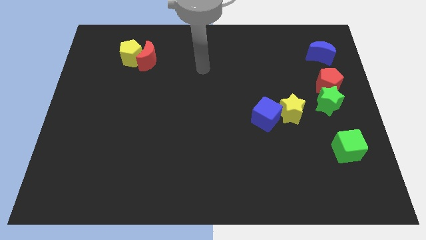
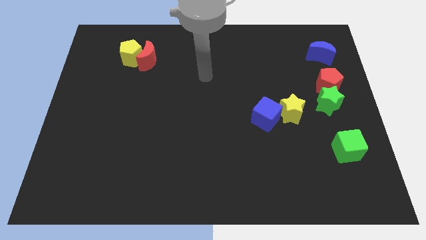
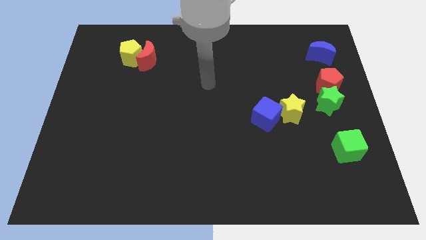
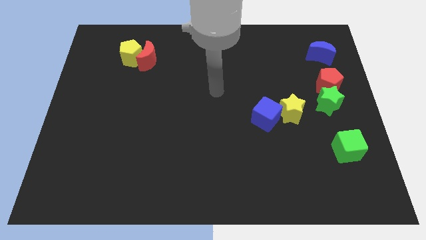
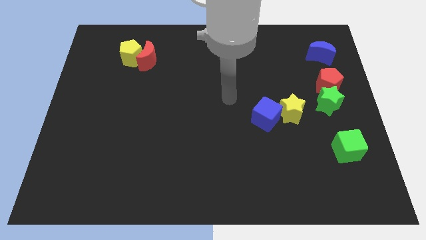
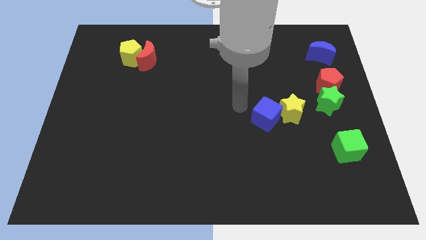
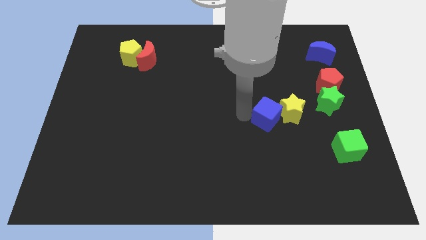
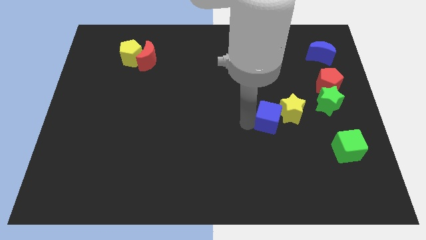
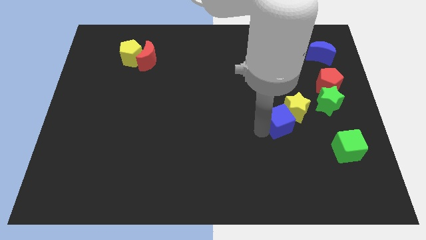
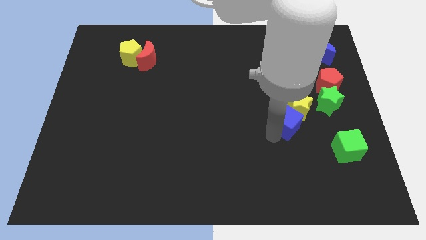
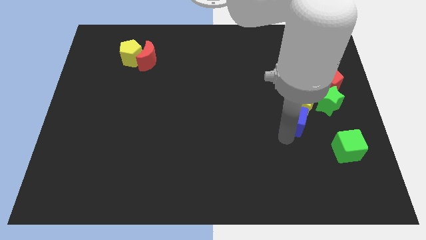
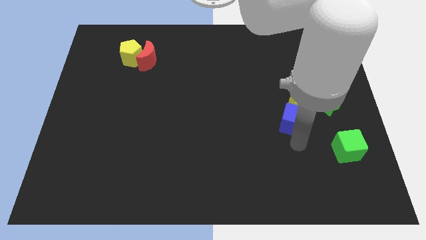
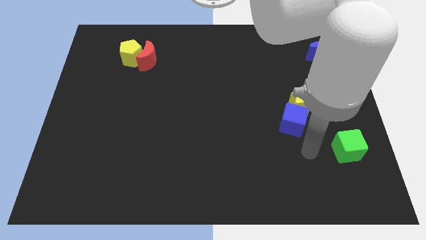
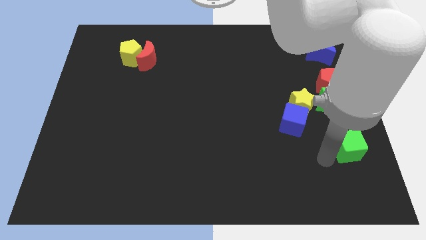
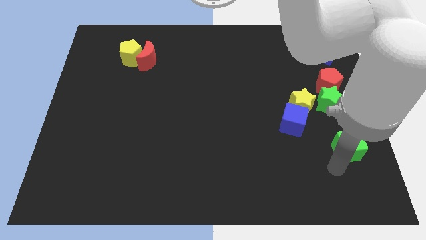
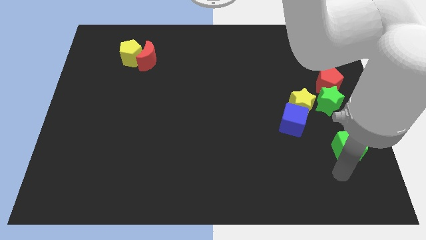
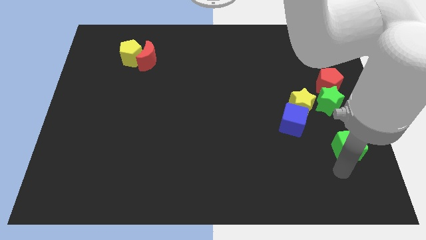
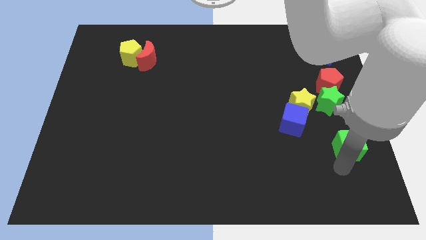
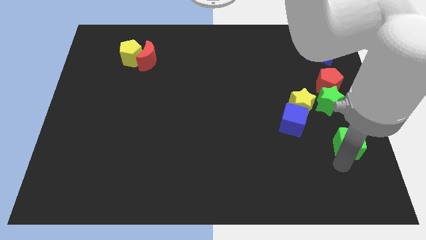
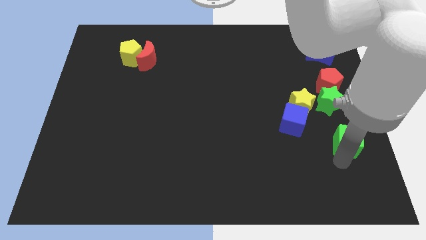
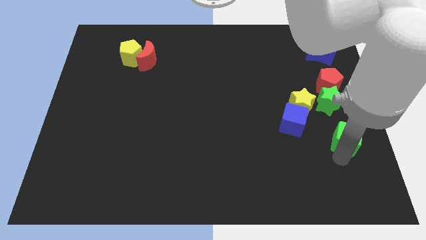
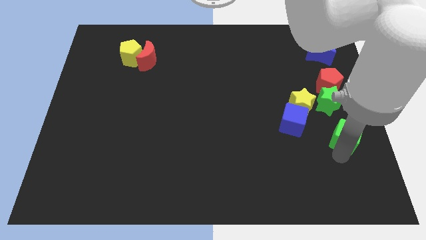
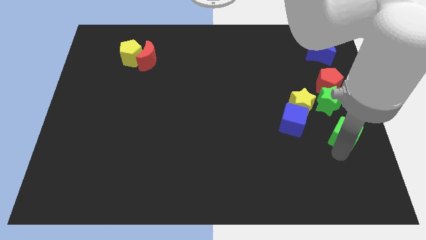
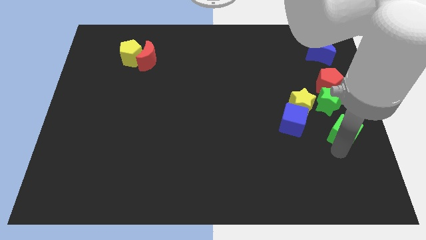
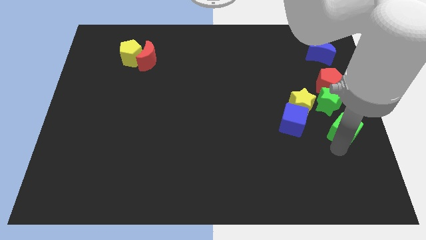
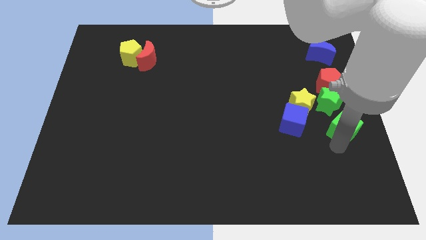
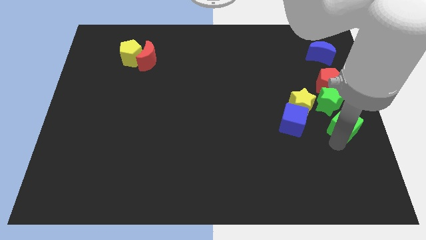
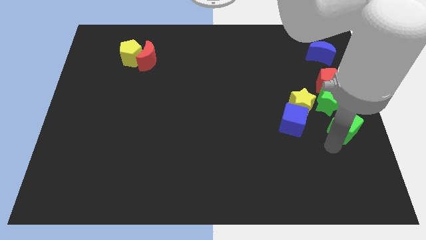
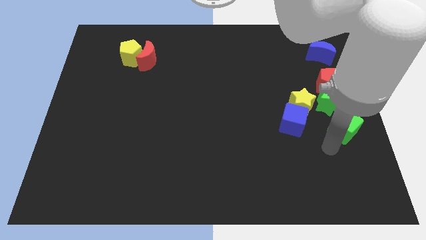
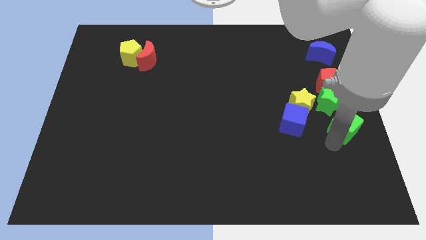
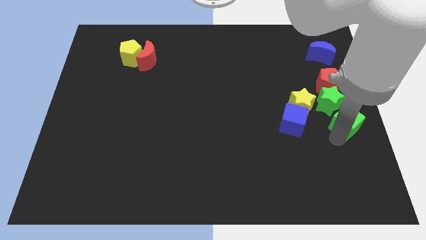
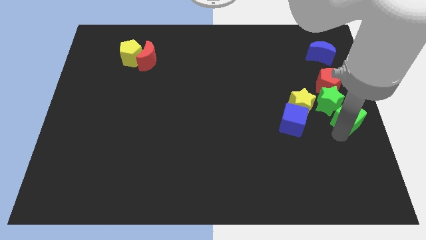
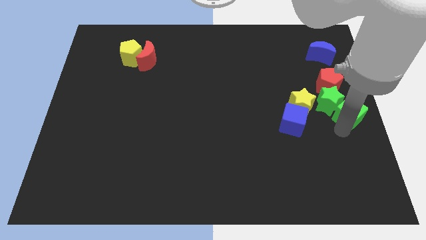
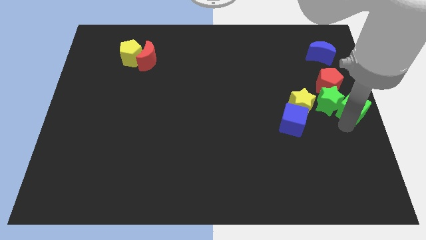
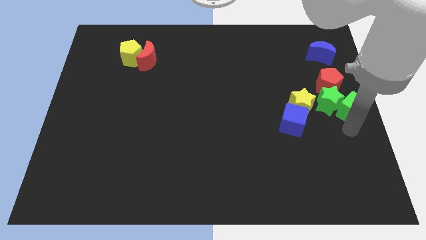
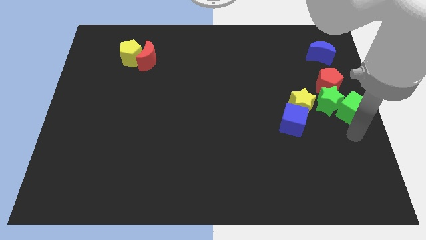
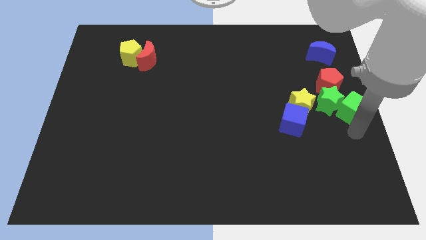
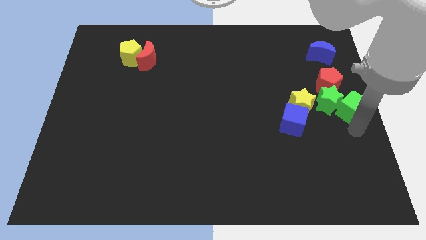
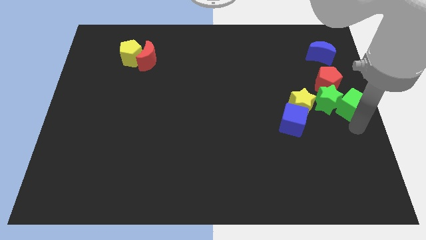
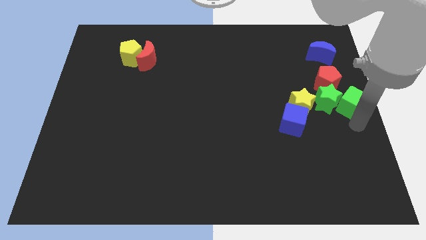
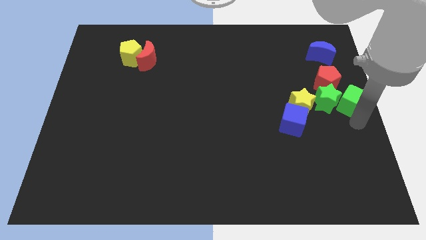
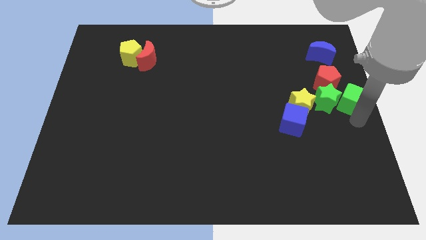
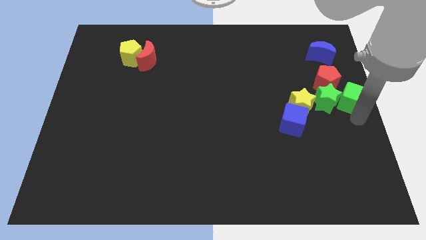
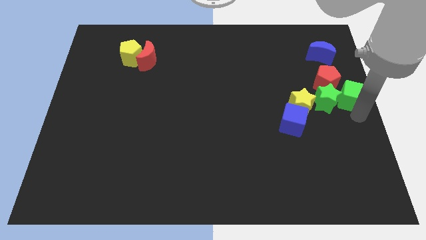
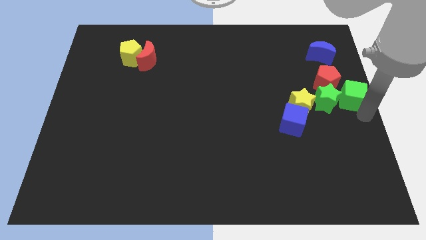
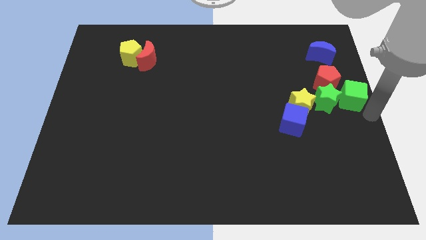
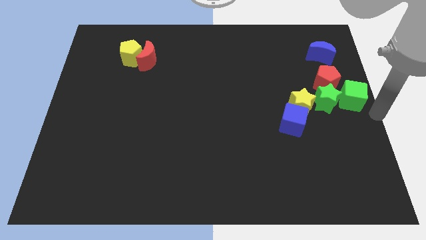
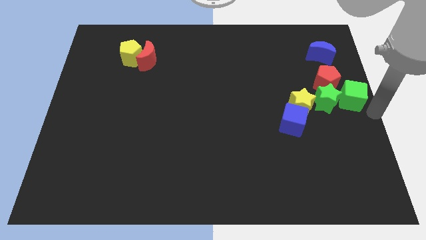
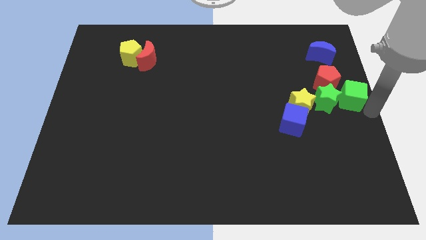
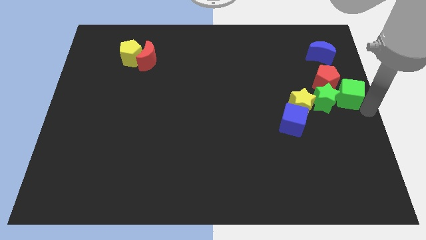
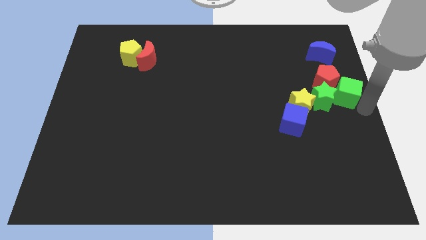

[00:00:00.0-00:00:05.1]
move the green cube to the red pentagon

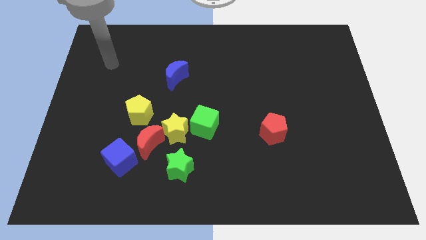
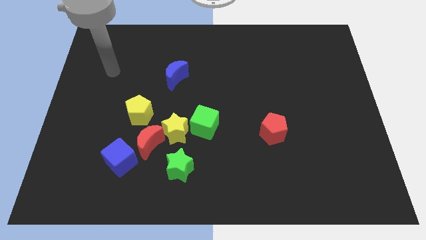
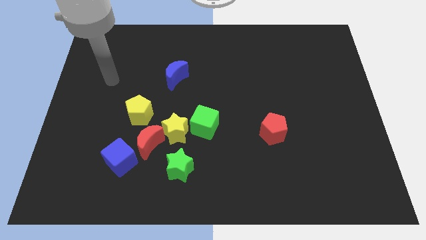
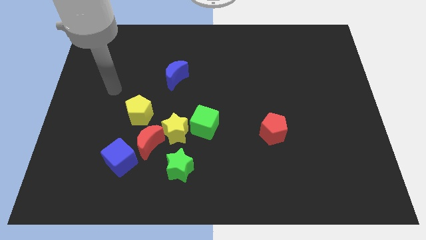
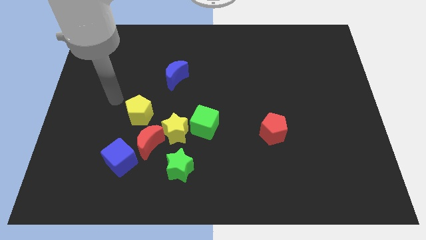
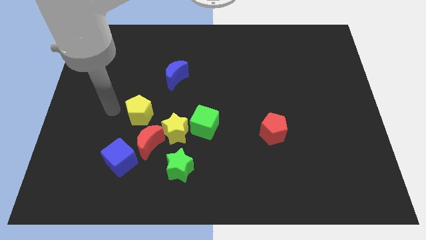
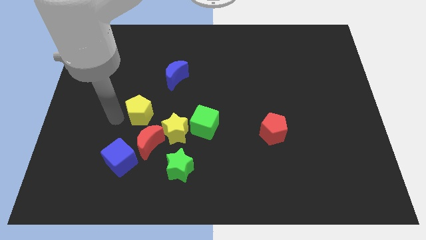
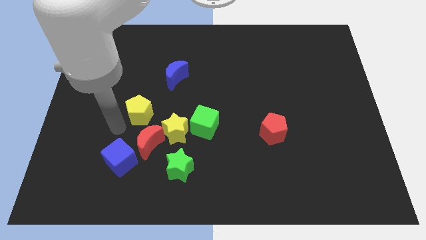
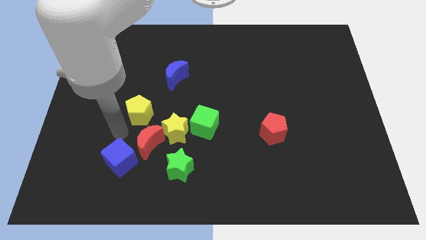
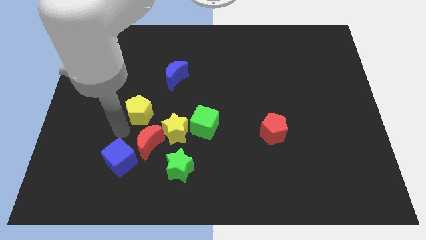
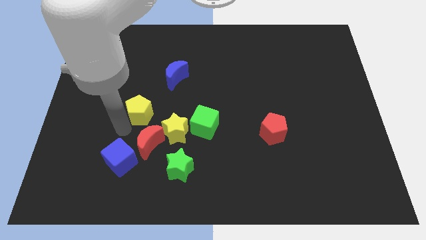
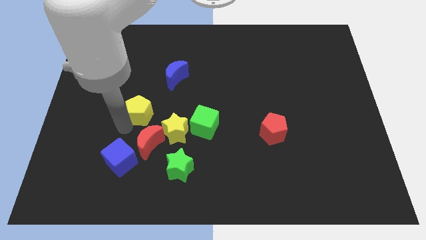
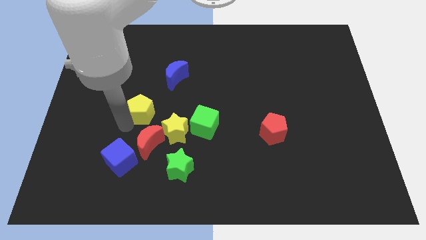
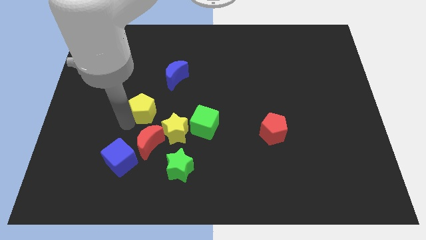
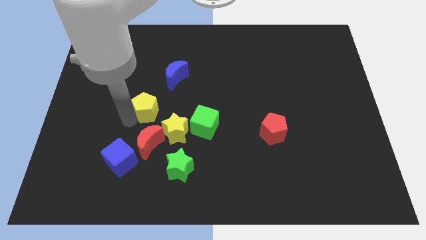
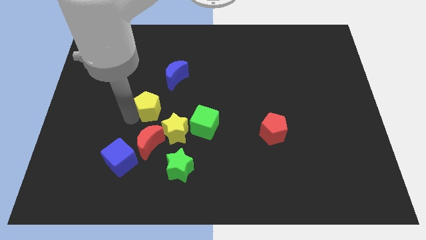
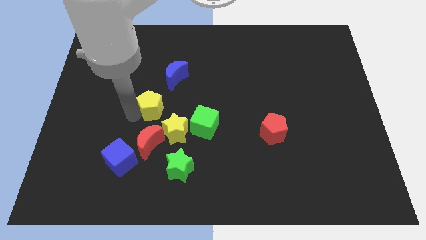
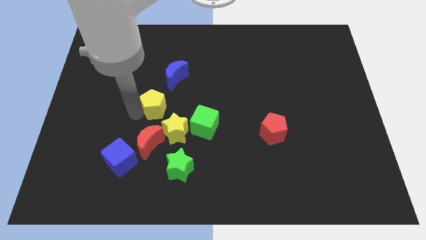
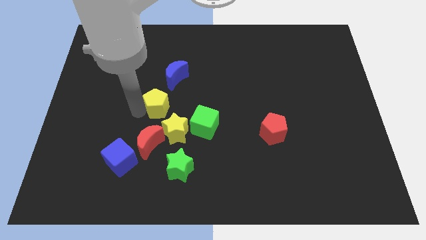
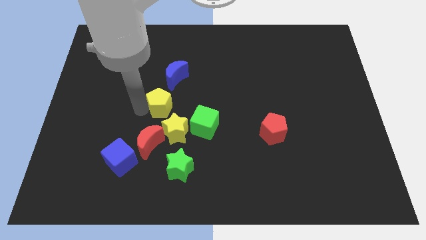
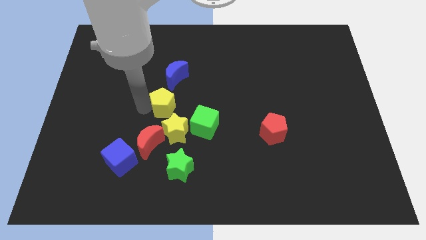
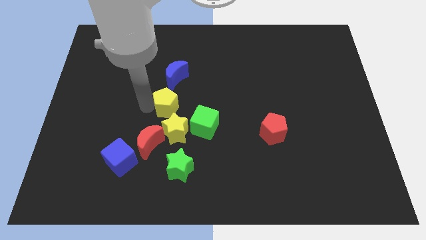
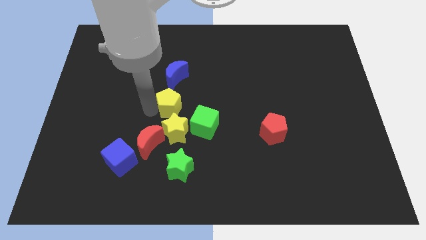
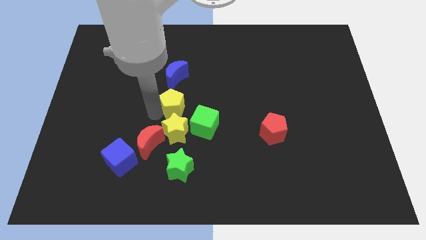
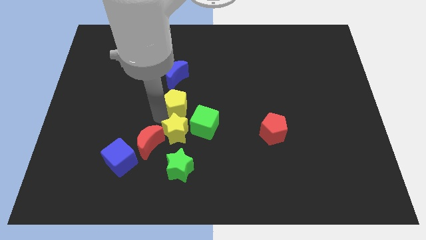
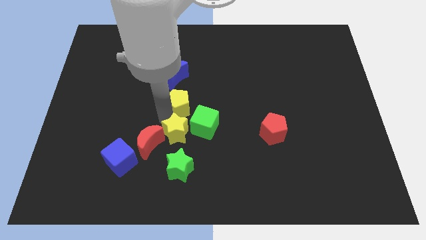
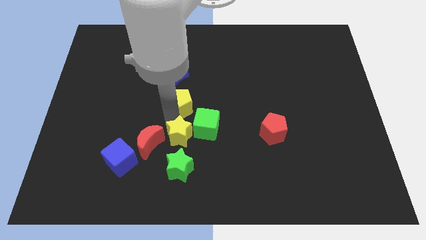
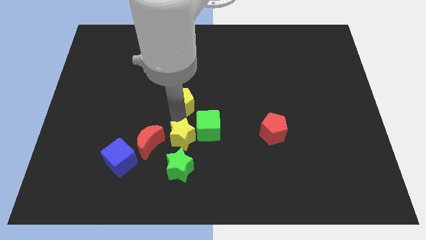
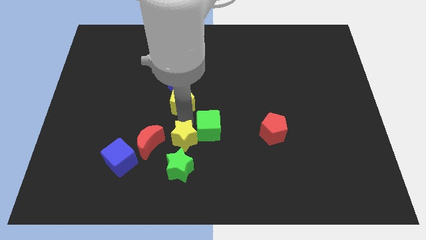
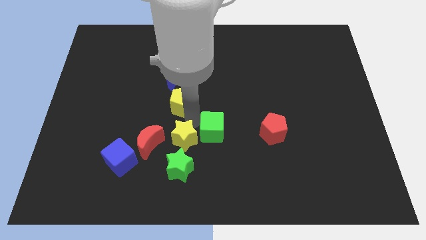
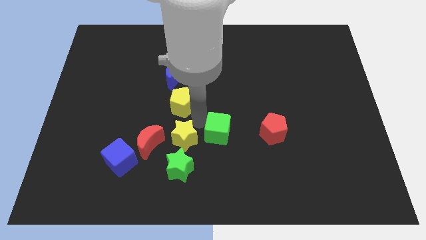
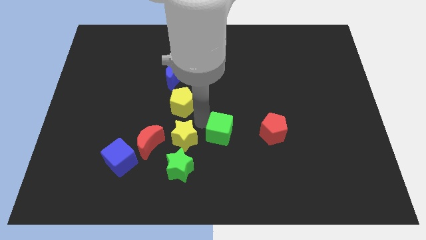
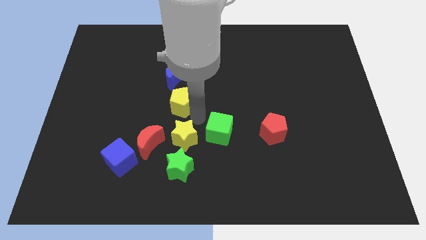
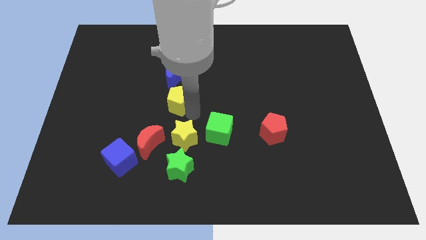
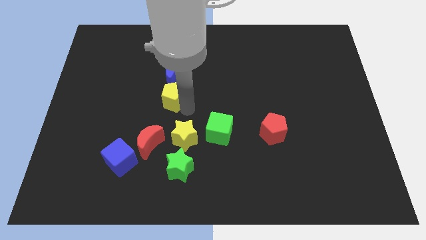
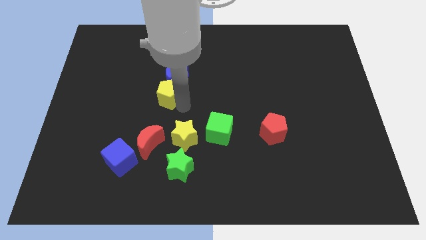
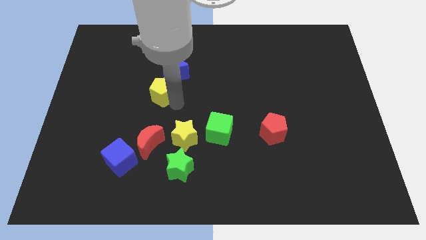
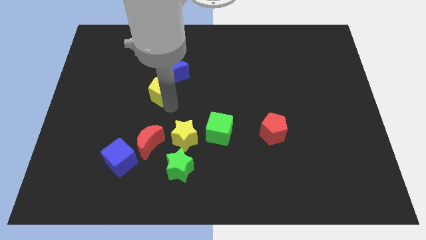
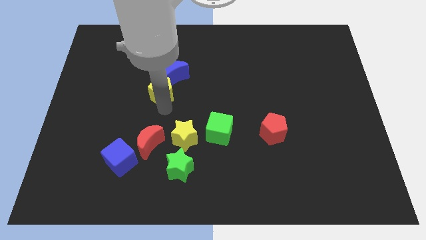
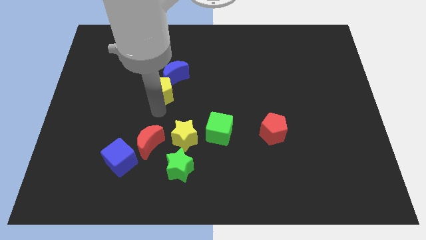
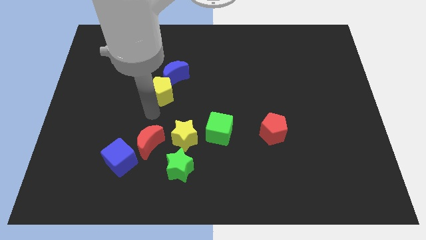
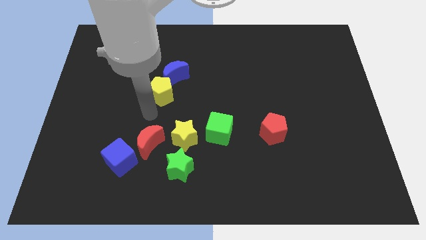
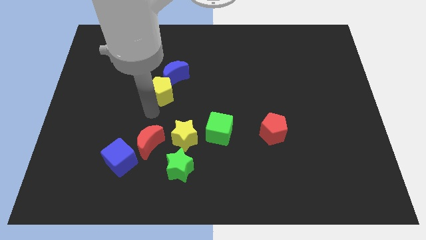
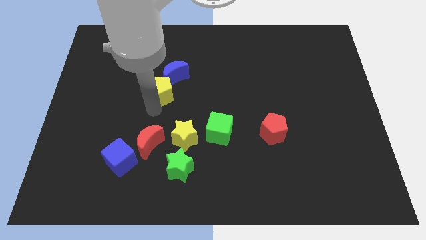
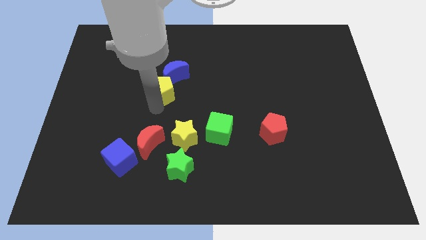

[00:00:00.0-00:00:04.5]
move the yellow pentagon to the blue moon
